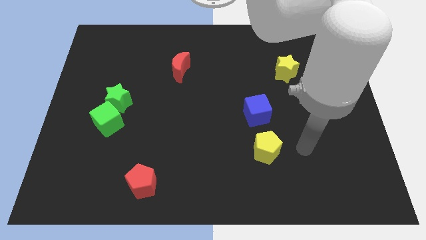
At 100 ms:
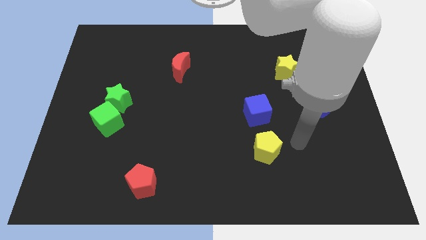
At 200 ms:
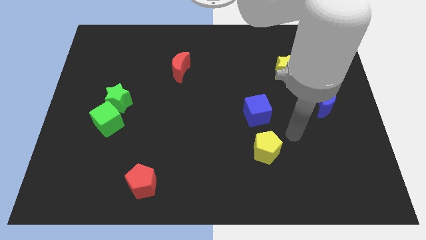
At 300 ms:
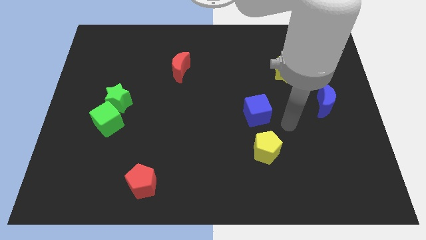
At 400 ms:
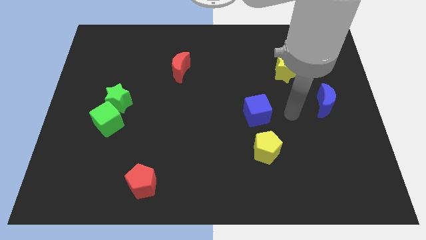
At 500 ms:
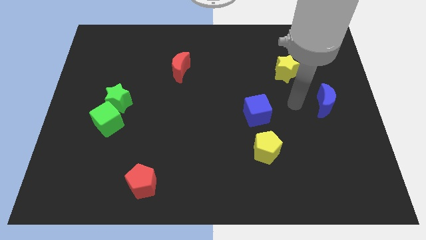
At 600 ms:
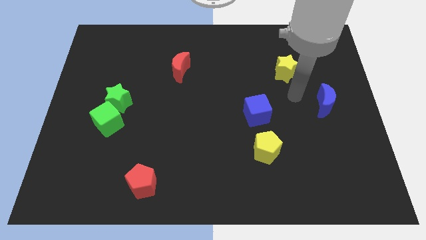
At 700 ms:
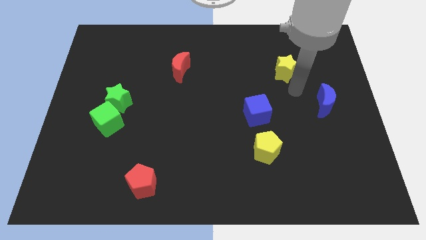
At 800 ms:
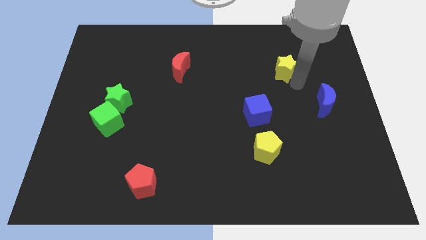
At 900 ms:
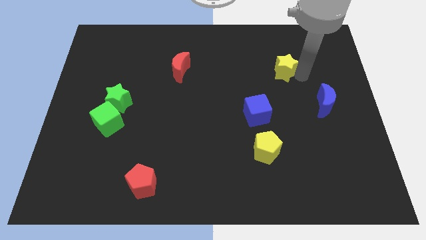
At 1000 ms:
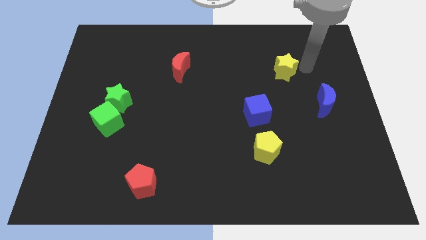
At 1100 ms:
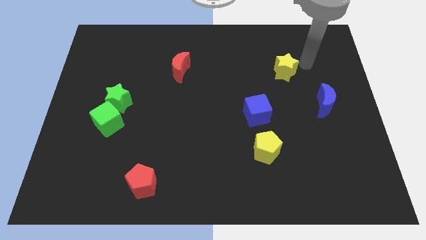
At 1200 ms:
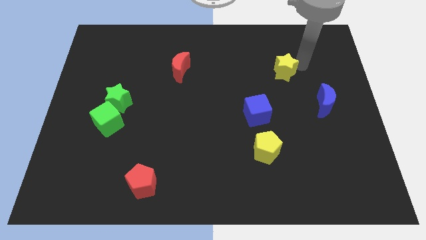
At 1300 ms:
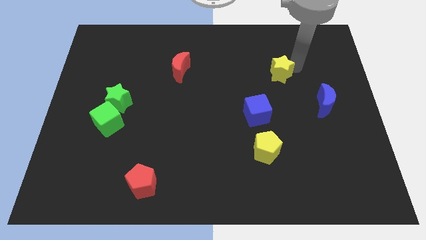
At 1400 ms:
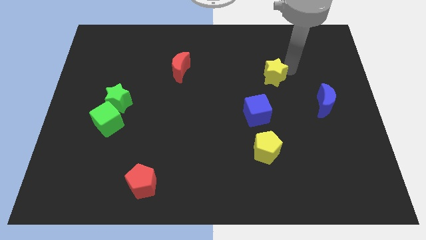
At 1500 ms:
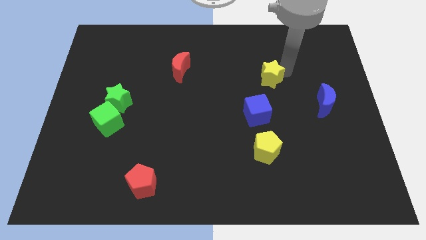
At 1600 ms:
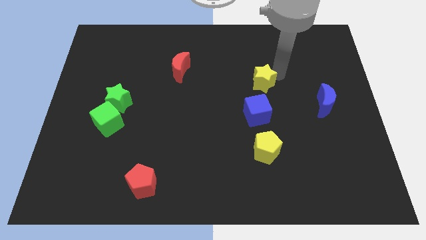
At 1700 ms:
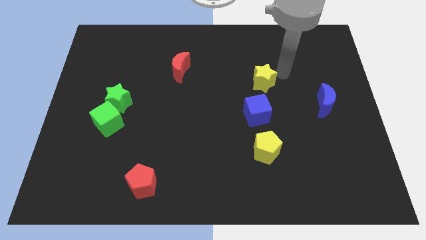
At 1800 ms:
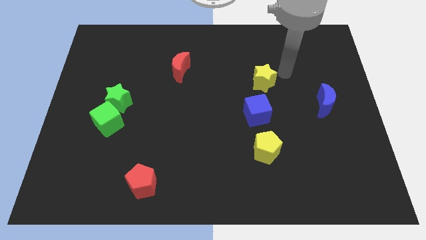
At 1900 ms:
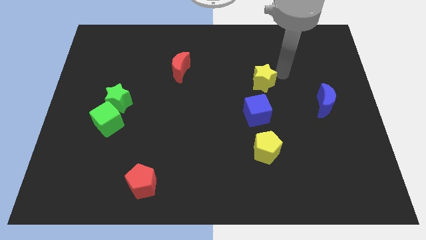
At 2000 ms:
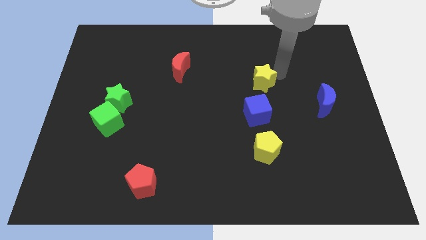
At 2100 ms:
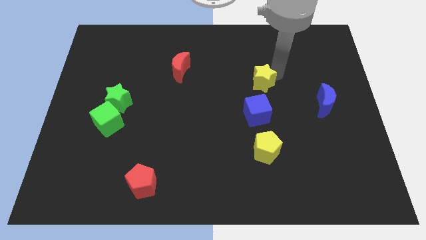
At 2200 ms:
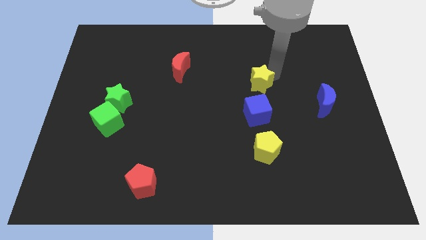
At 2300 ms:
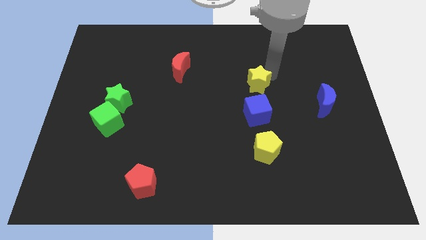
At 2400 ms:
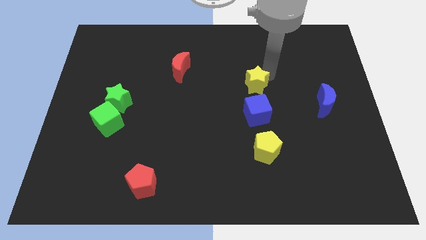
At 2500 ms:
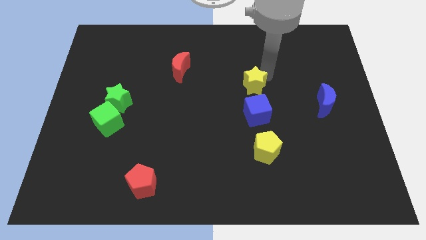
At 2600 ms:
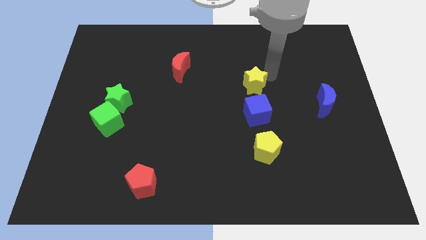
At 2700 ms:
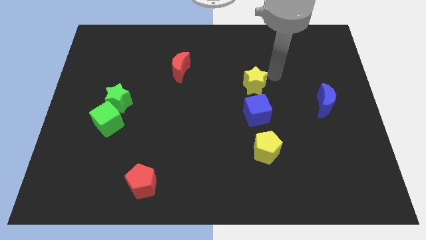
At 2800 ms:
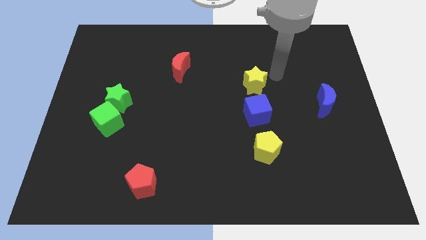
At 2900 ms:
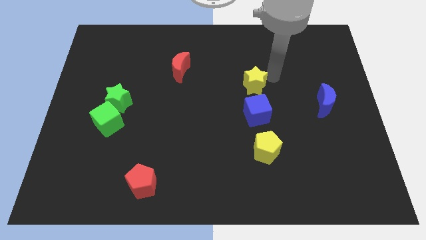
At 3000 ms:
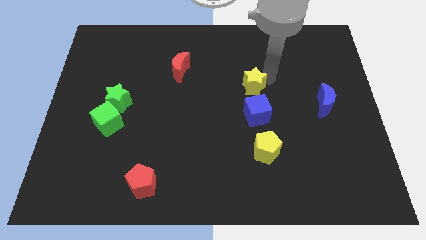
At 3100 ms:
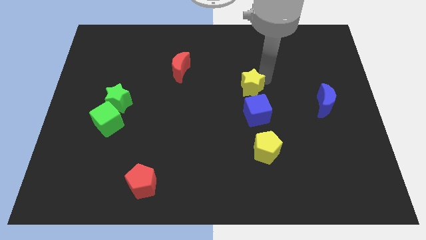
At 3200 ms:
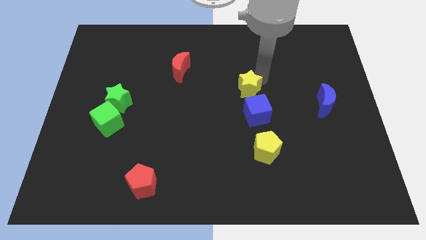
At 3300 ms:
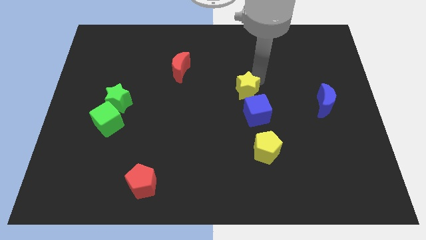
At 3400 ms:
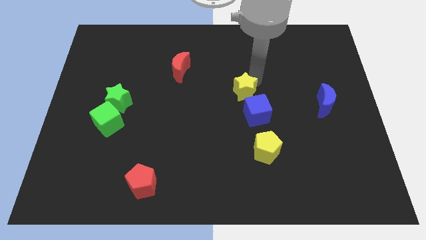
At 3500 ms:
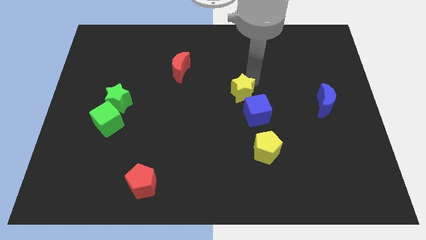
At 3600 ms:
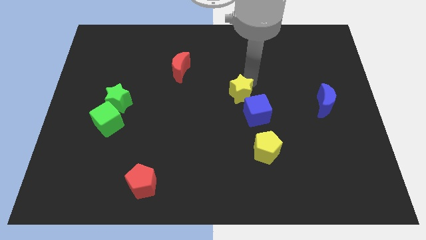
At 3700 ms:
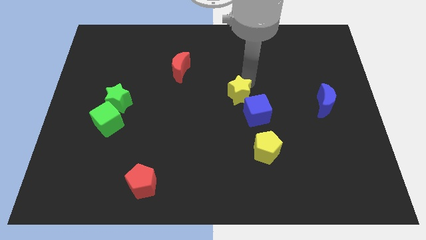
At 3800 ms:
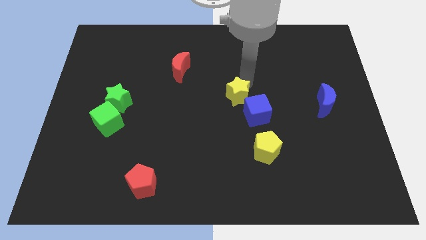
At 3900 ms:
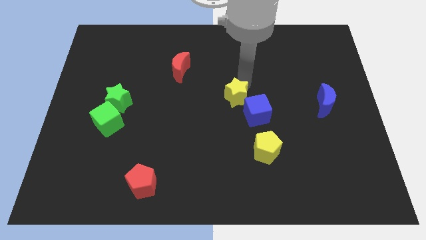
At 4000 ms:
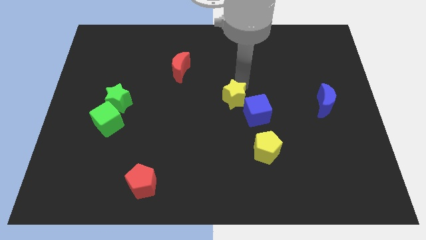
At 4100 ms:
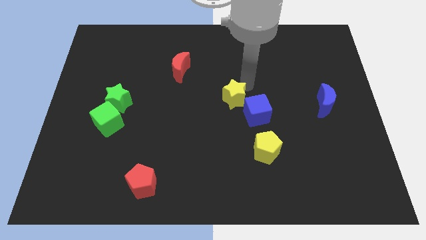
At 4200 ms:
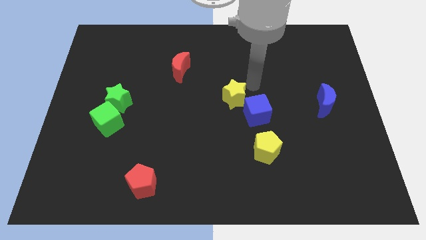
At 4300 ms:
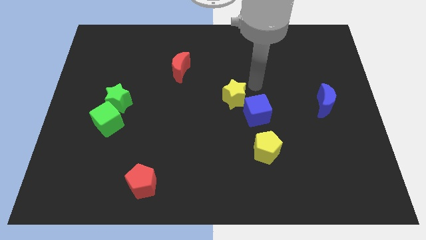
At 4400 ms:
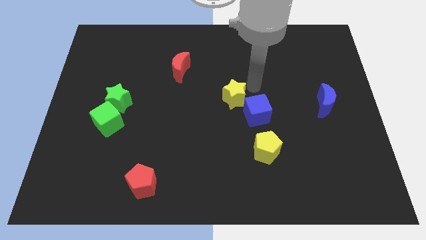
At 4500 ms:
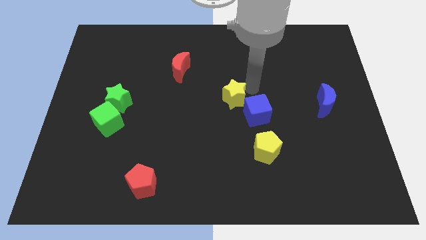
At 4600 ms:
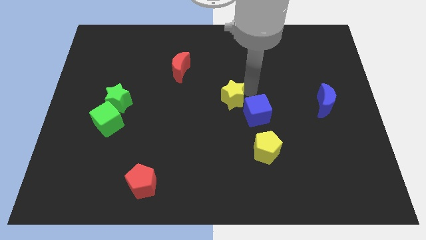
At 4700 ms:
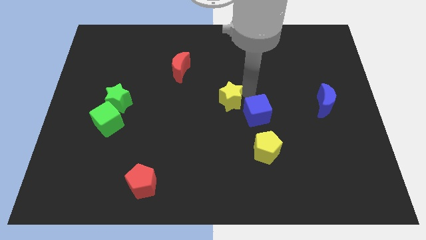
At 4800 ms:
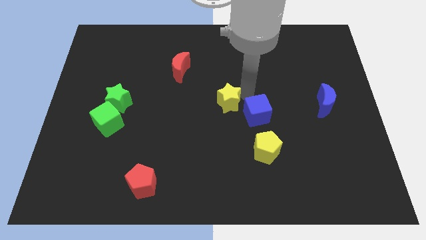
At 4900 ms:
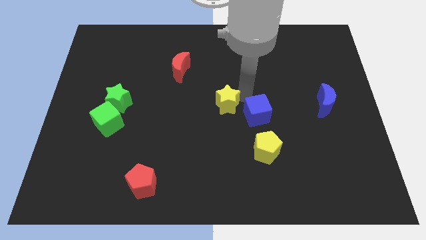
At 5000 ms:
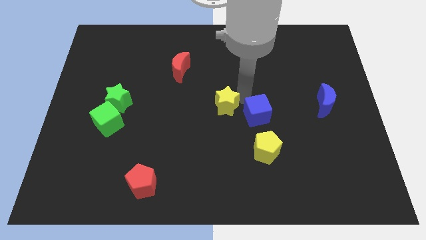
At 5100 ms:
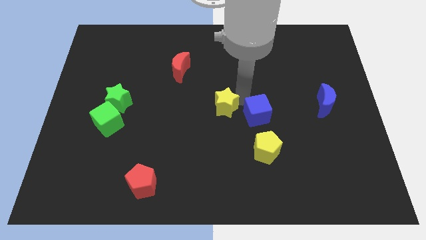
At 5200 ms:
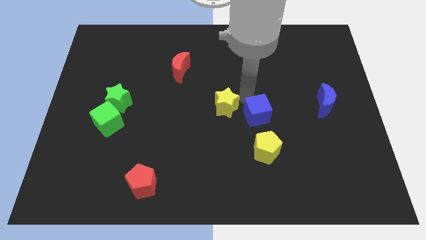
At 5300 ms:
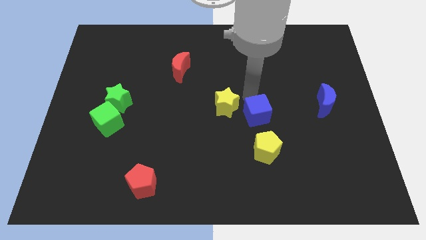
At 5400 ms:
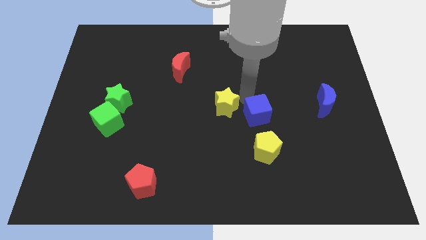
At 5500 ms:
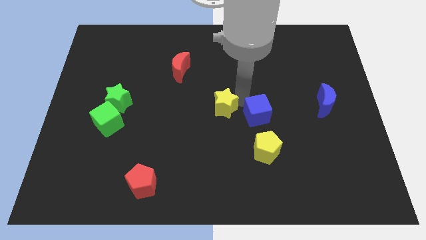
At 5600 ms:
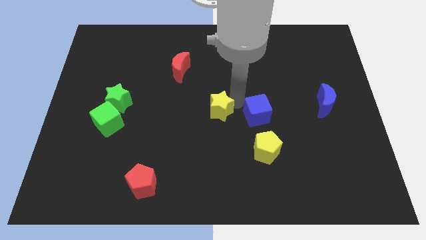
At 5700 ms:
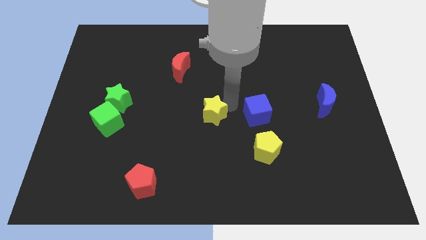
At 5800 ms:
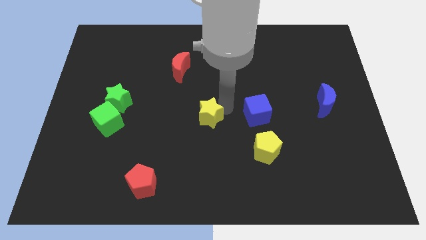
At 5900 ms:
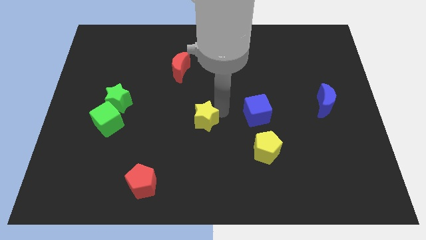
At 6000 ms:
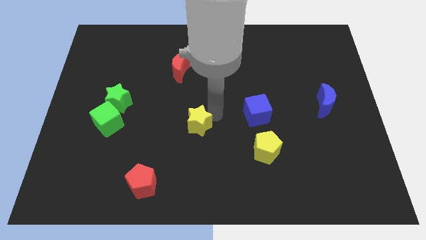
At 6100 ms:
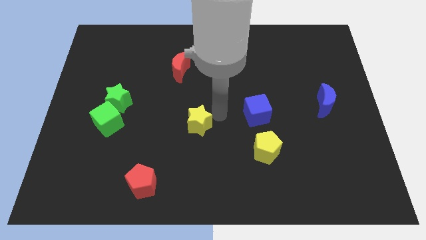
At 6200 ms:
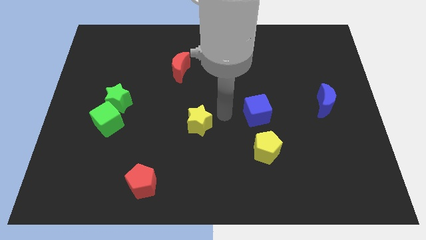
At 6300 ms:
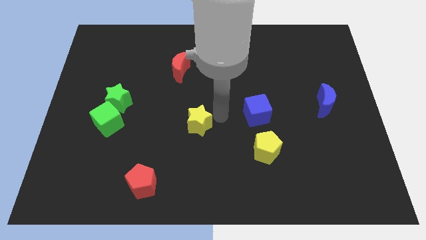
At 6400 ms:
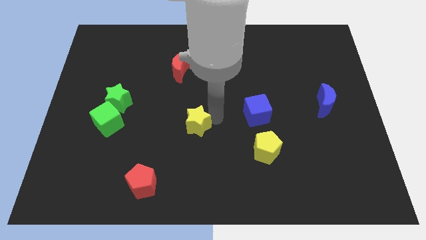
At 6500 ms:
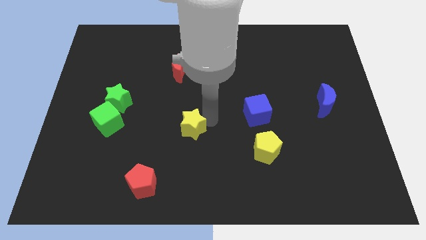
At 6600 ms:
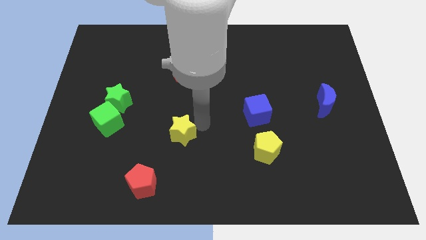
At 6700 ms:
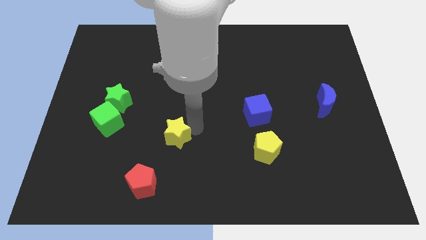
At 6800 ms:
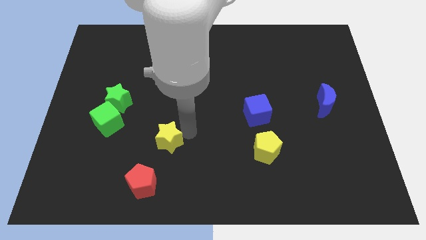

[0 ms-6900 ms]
push the yellow star above the red pentagon
